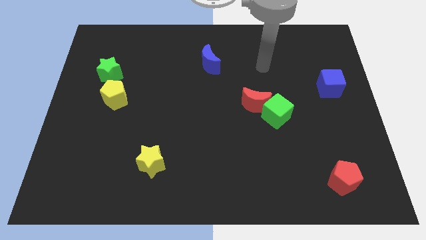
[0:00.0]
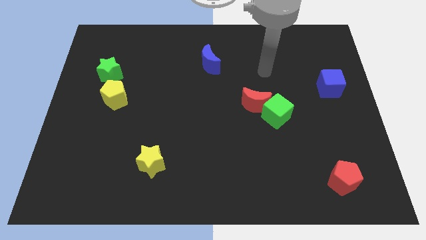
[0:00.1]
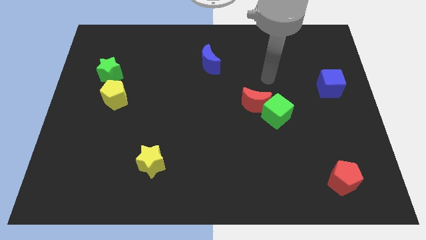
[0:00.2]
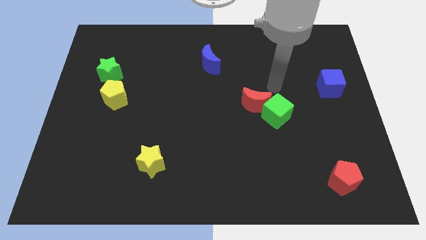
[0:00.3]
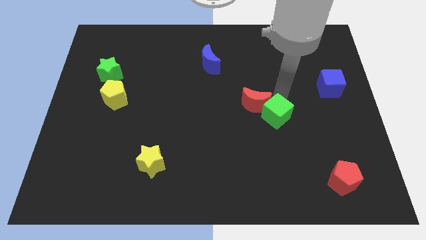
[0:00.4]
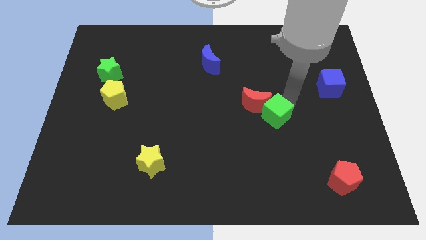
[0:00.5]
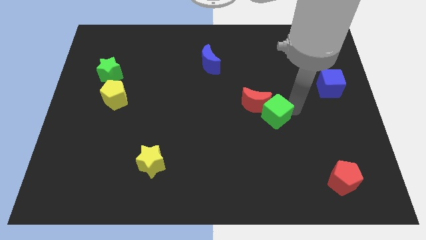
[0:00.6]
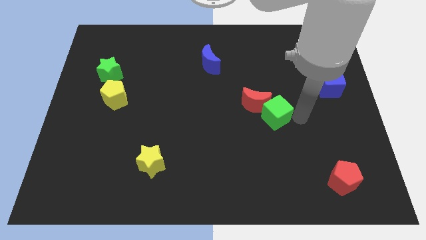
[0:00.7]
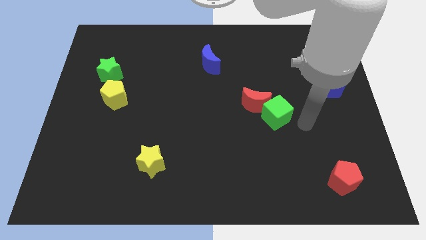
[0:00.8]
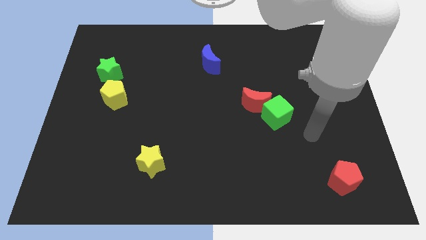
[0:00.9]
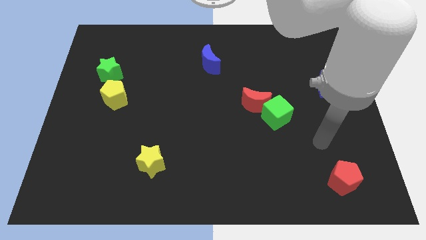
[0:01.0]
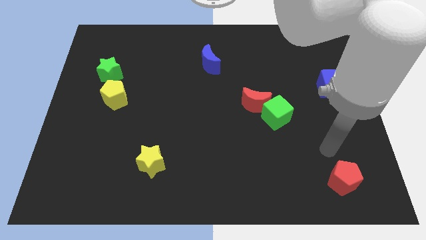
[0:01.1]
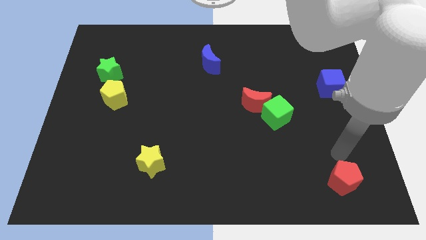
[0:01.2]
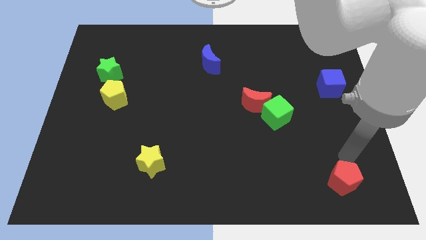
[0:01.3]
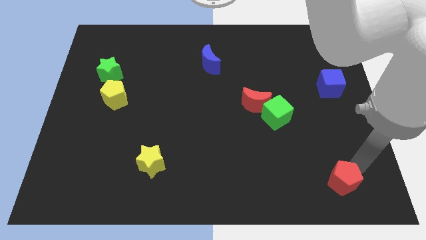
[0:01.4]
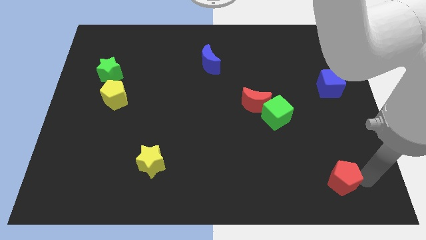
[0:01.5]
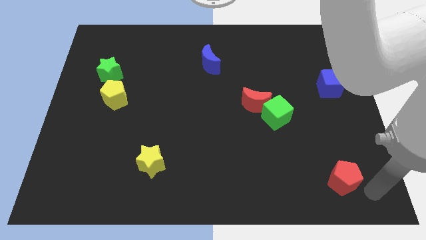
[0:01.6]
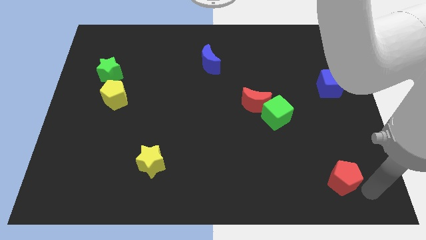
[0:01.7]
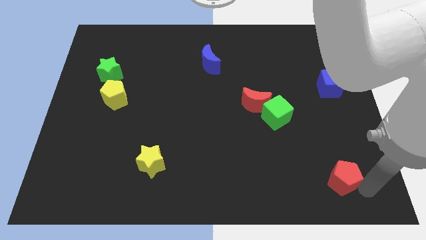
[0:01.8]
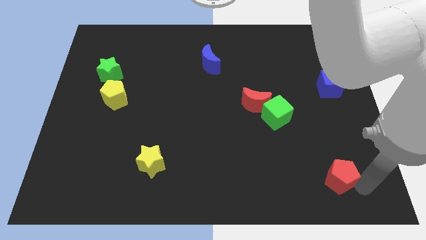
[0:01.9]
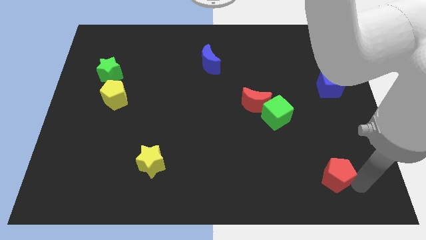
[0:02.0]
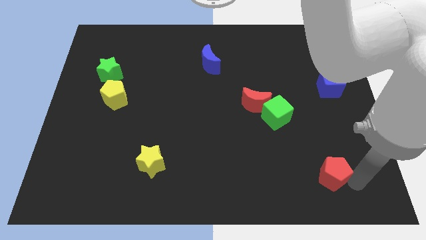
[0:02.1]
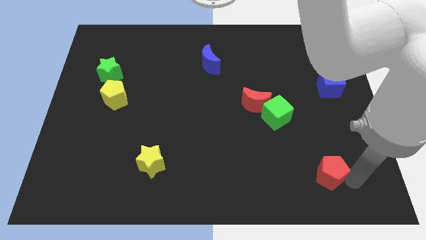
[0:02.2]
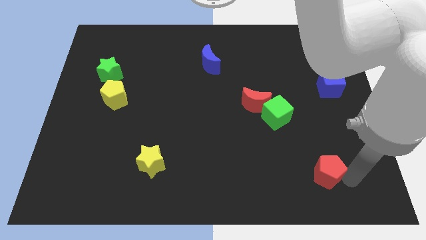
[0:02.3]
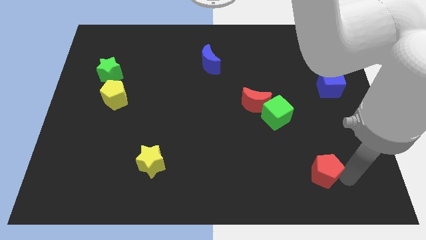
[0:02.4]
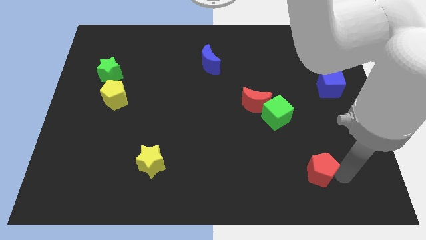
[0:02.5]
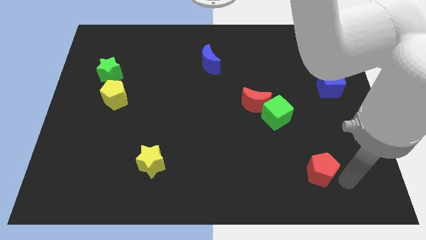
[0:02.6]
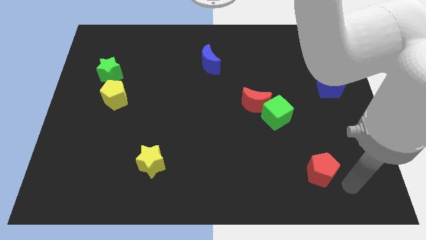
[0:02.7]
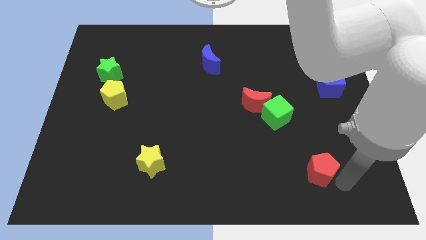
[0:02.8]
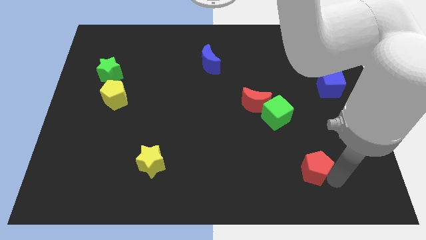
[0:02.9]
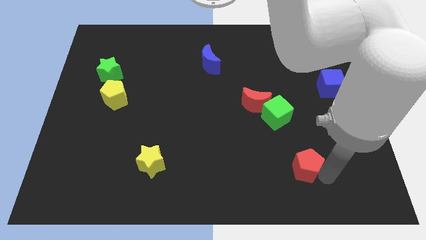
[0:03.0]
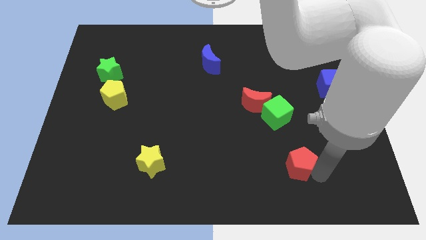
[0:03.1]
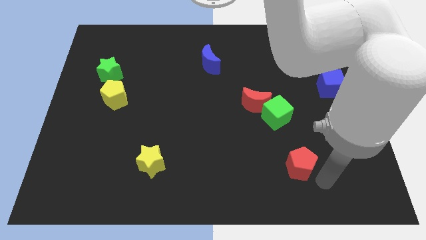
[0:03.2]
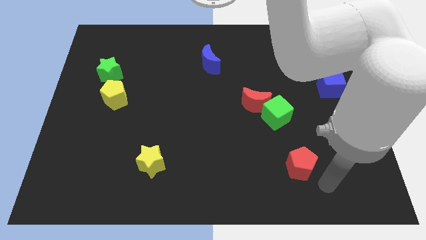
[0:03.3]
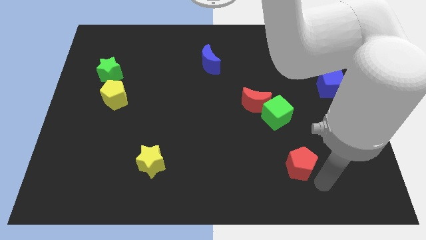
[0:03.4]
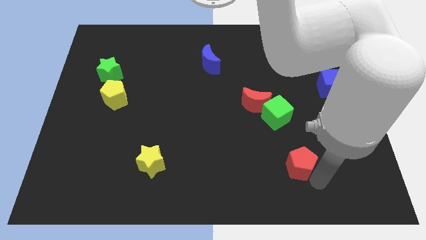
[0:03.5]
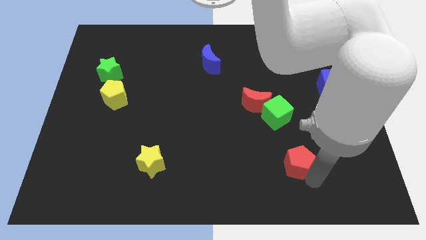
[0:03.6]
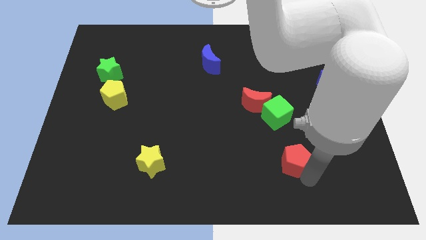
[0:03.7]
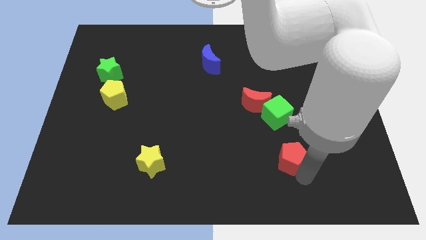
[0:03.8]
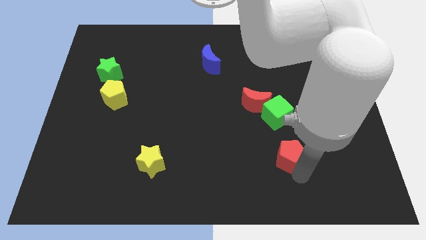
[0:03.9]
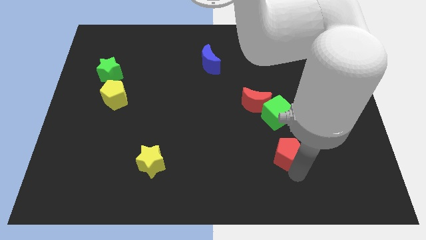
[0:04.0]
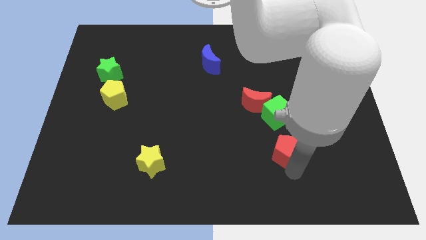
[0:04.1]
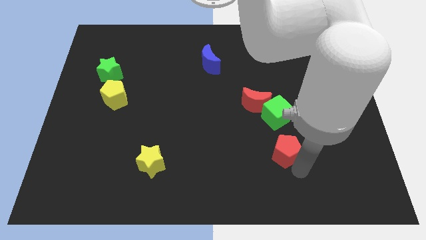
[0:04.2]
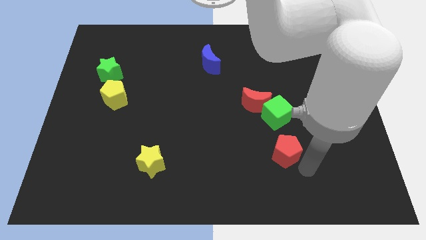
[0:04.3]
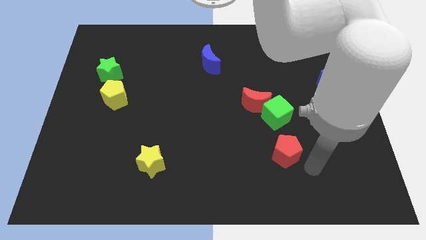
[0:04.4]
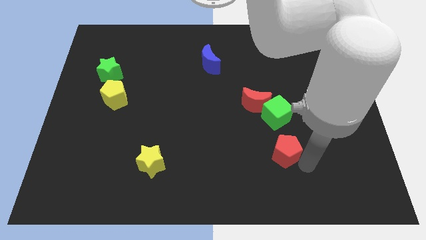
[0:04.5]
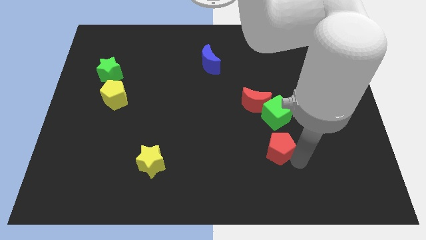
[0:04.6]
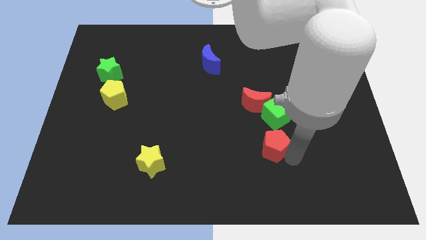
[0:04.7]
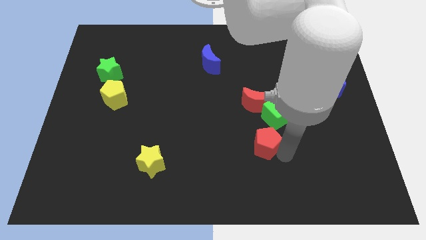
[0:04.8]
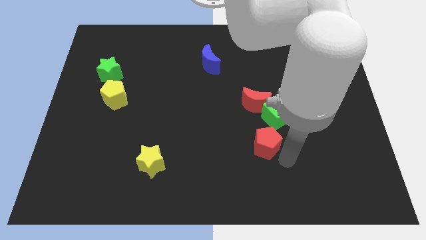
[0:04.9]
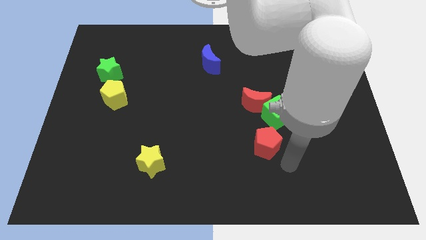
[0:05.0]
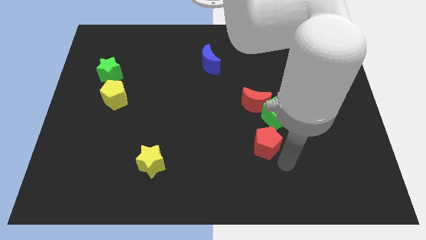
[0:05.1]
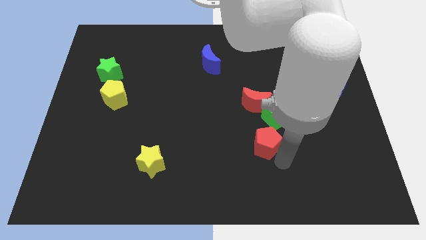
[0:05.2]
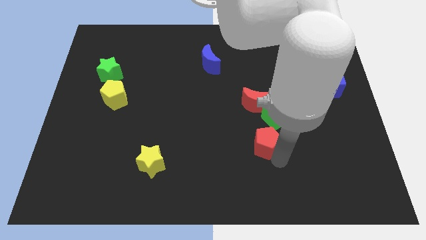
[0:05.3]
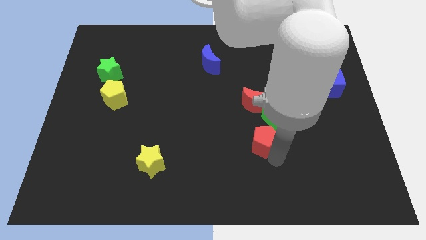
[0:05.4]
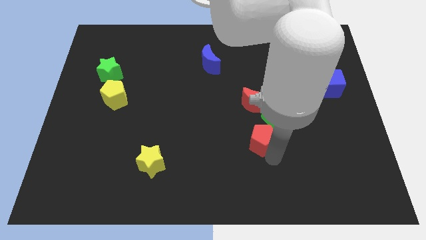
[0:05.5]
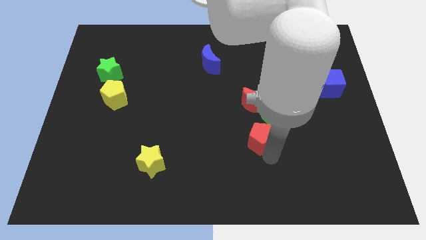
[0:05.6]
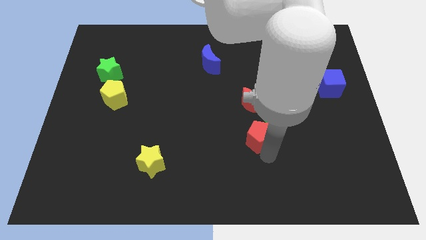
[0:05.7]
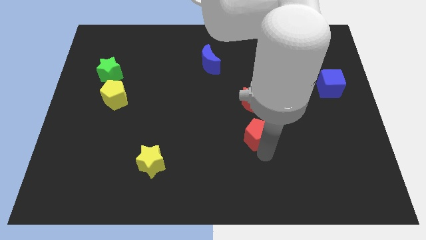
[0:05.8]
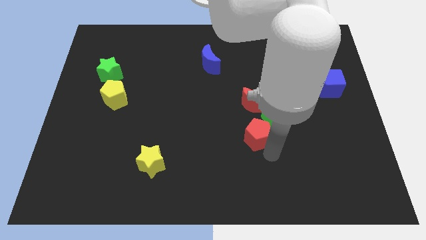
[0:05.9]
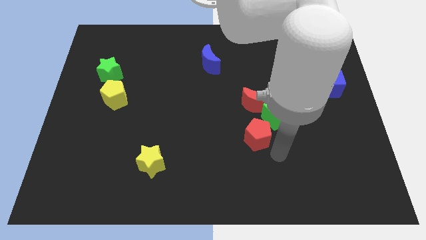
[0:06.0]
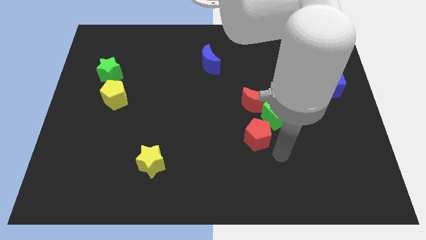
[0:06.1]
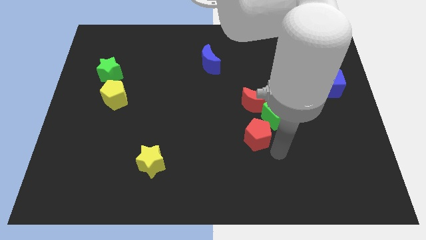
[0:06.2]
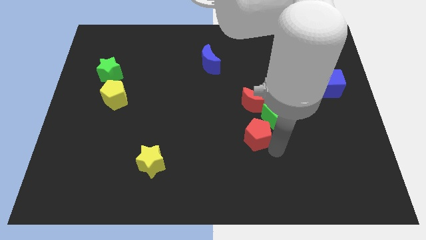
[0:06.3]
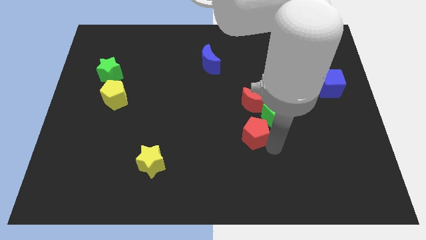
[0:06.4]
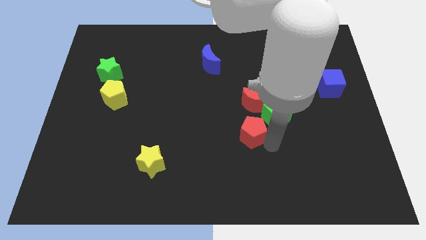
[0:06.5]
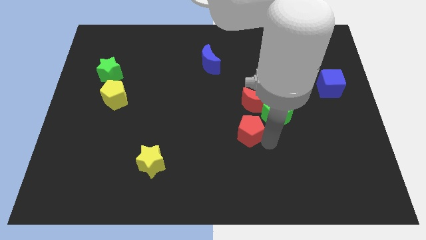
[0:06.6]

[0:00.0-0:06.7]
put the red pentagon to the middle of the board
